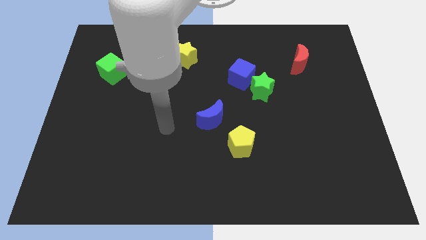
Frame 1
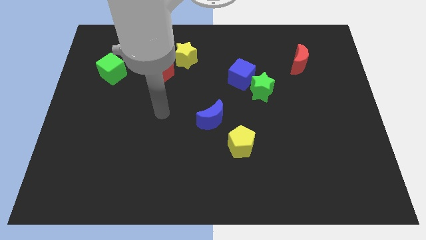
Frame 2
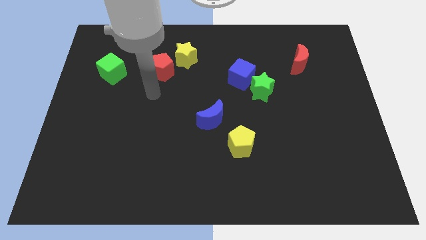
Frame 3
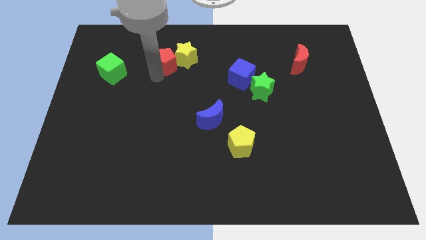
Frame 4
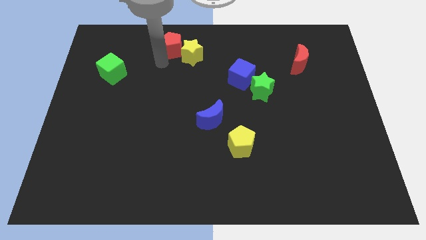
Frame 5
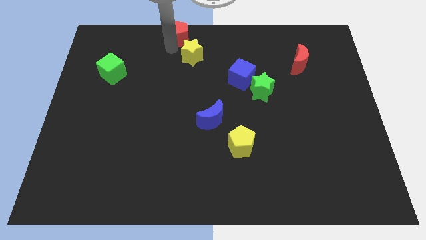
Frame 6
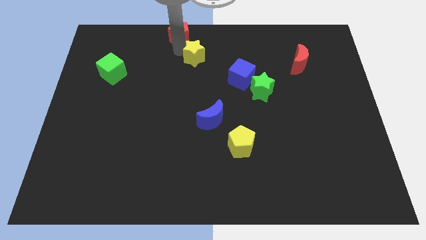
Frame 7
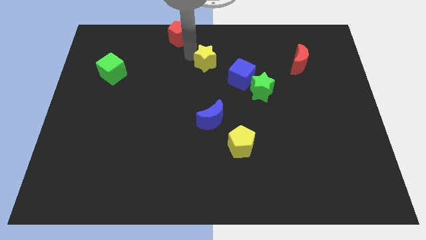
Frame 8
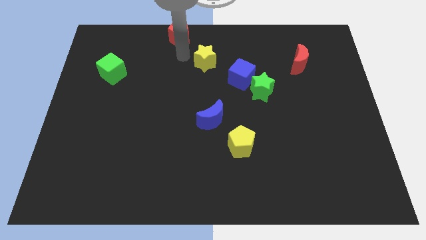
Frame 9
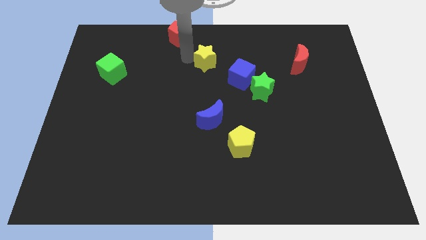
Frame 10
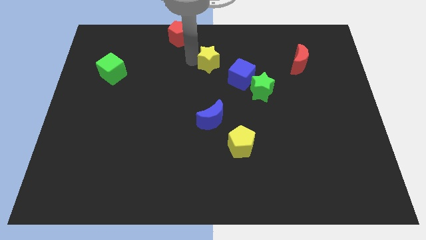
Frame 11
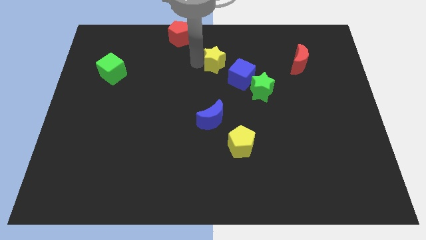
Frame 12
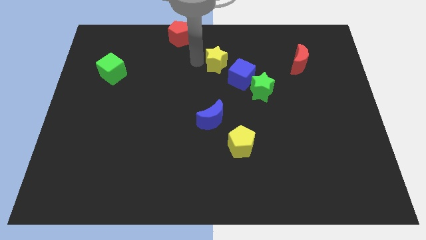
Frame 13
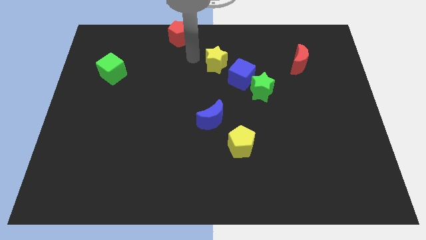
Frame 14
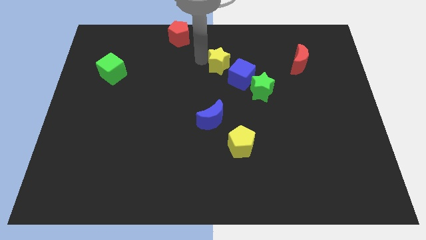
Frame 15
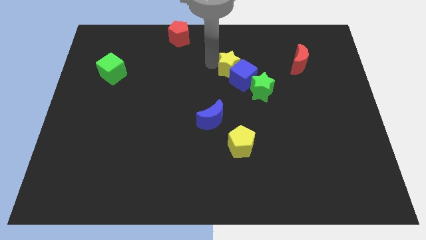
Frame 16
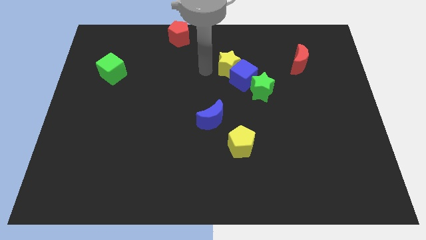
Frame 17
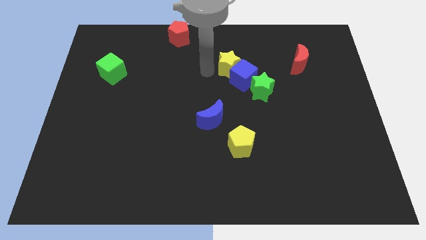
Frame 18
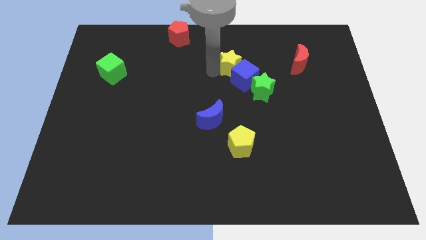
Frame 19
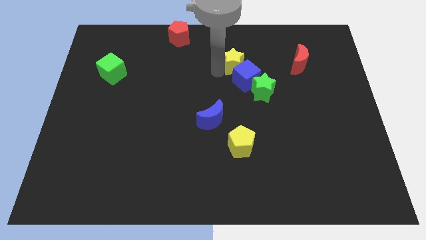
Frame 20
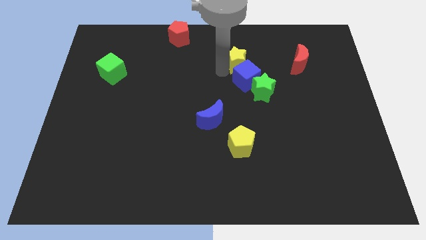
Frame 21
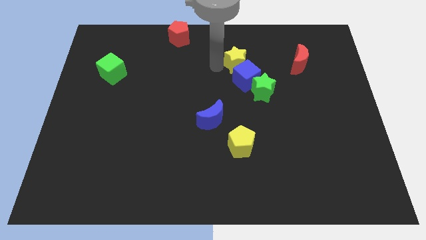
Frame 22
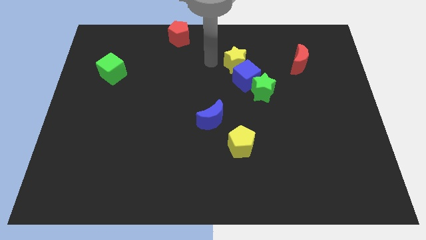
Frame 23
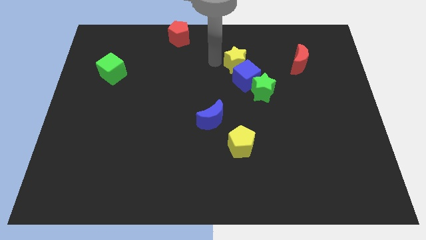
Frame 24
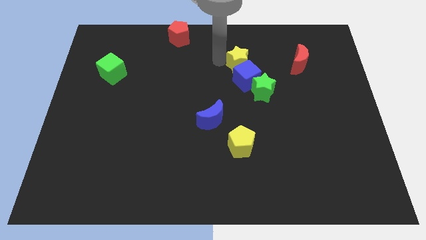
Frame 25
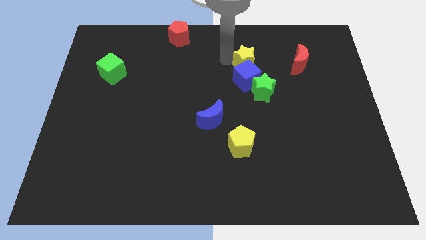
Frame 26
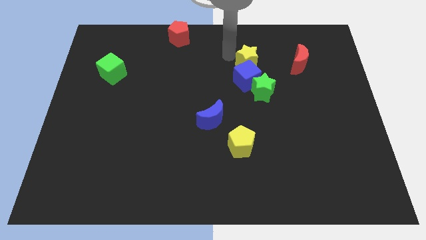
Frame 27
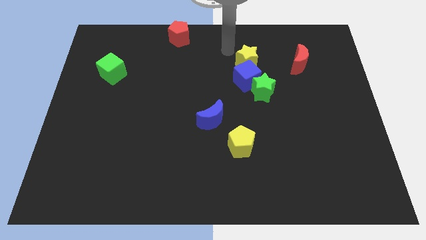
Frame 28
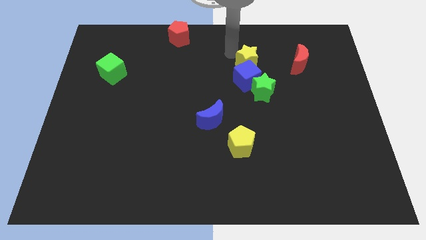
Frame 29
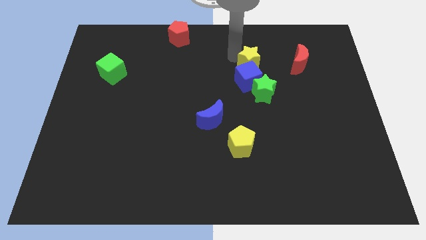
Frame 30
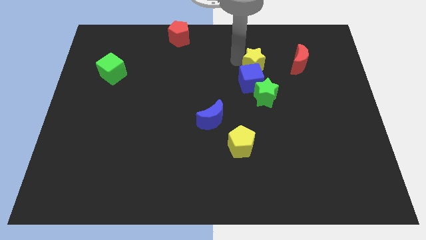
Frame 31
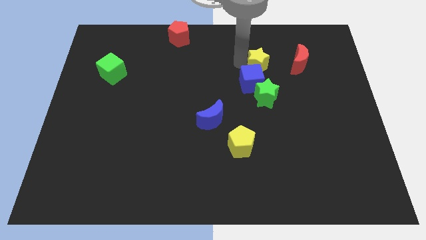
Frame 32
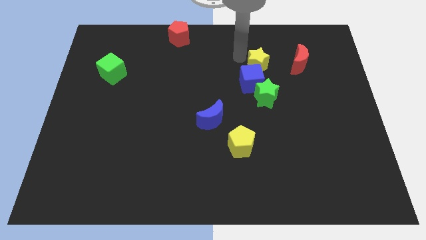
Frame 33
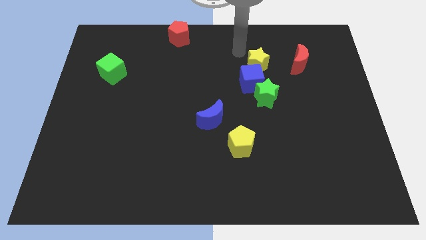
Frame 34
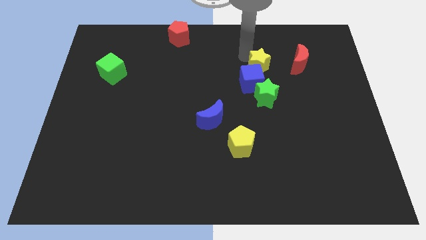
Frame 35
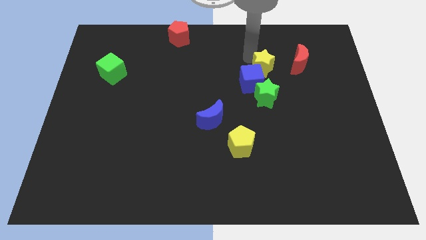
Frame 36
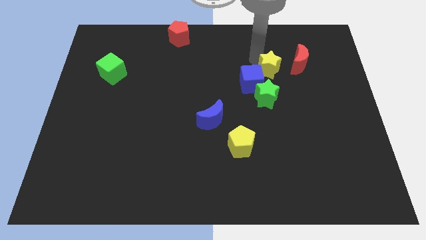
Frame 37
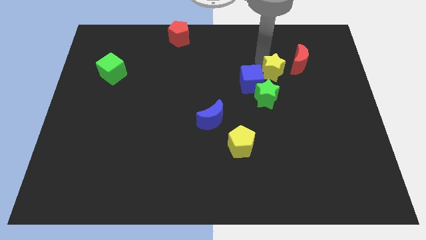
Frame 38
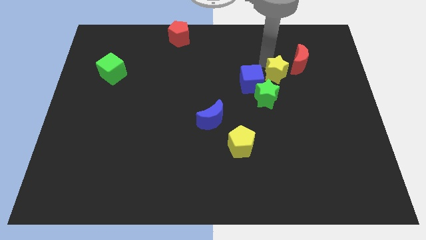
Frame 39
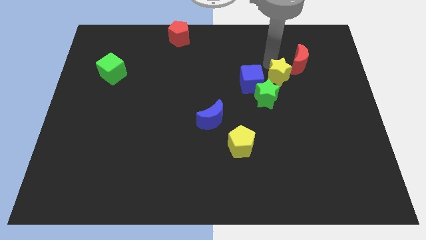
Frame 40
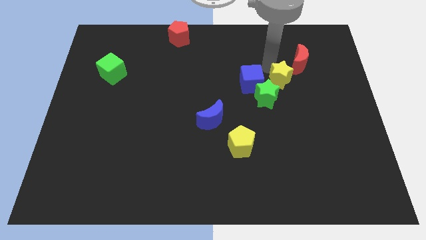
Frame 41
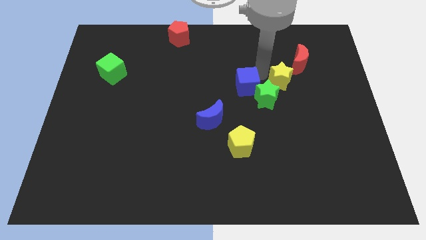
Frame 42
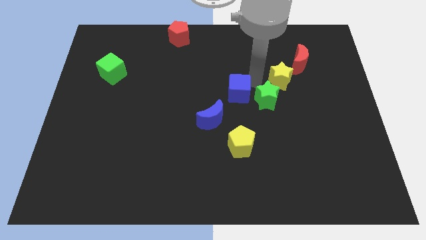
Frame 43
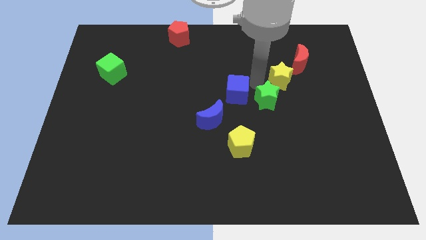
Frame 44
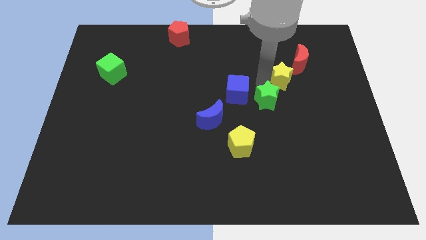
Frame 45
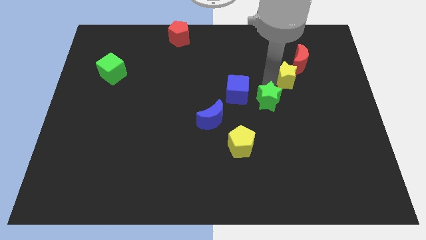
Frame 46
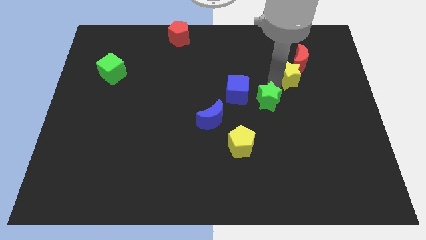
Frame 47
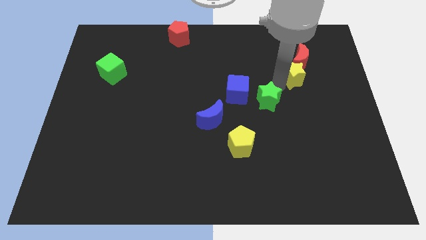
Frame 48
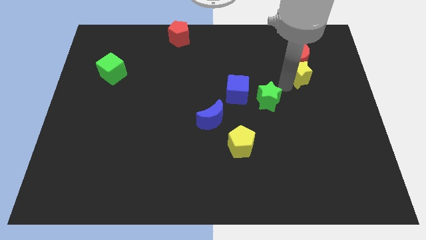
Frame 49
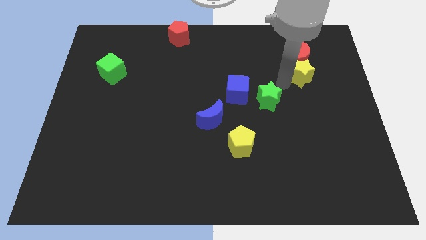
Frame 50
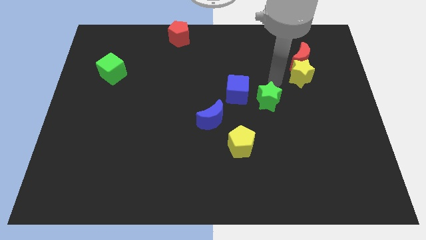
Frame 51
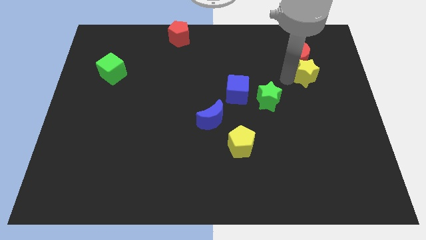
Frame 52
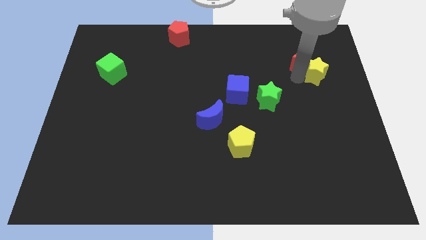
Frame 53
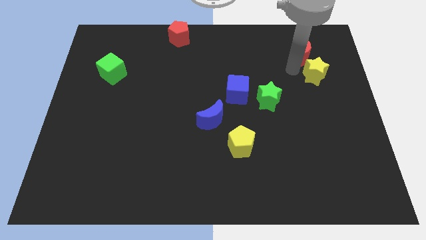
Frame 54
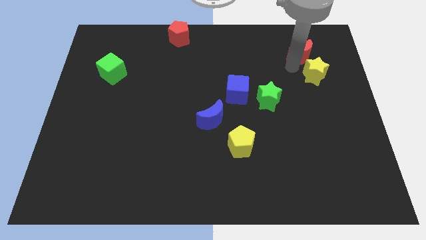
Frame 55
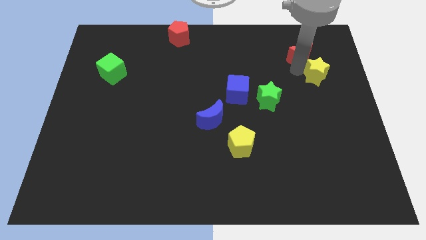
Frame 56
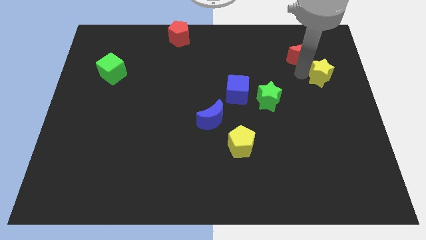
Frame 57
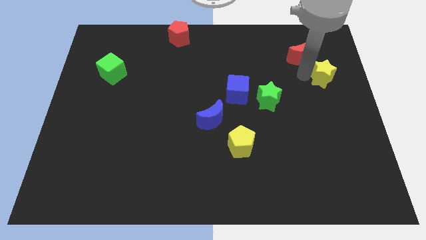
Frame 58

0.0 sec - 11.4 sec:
move the yellow star to the right side of the board
